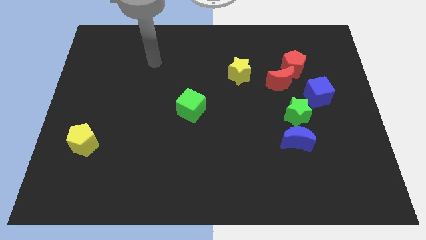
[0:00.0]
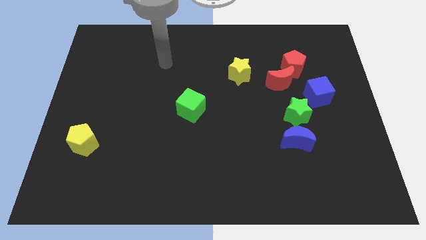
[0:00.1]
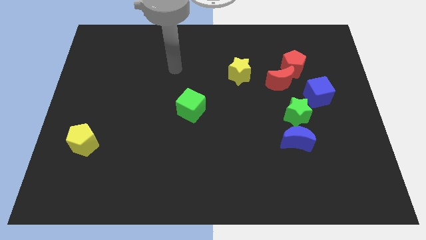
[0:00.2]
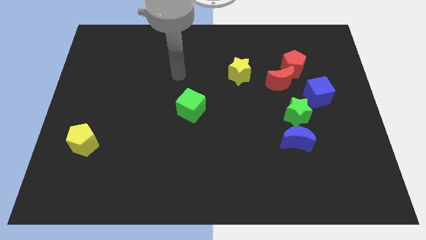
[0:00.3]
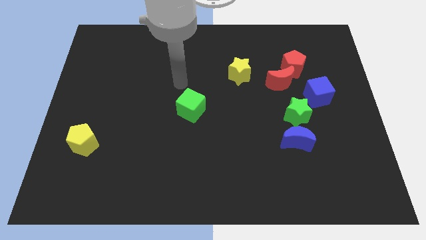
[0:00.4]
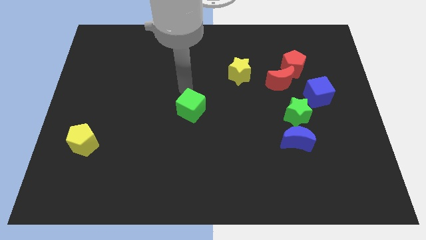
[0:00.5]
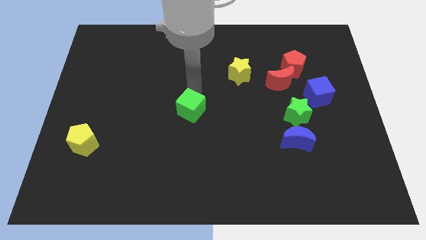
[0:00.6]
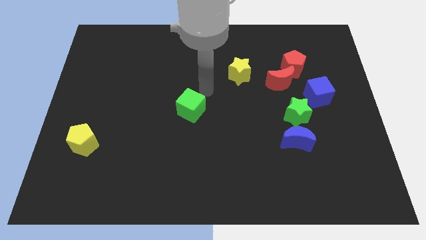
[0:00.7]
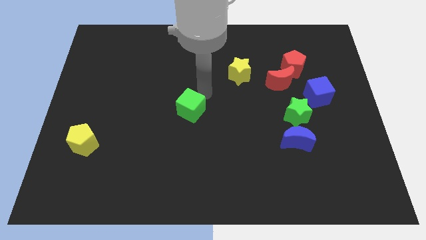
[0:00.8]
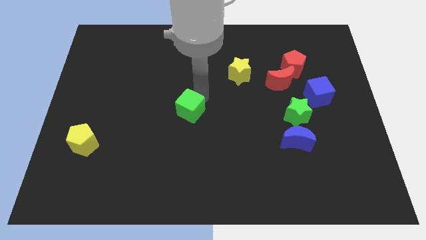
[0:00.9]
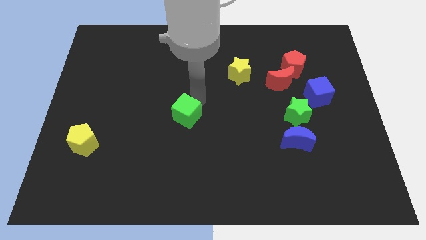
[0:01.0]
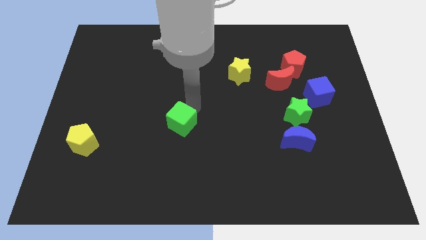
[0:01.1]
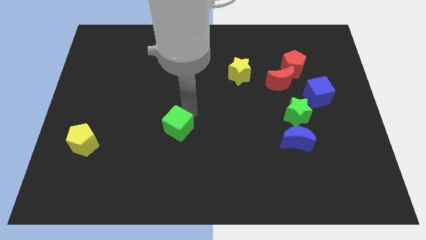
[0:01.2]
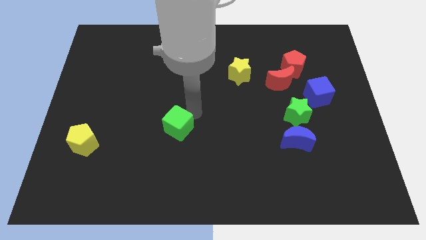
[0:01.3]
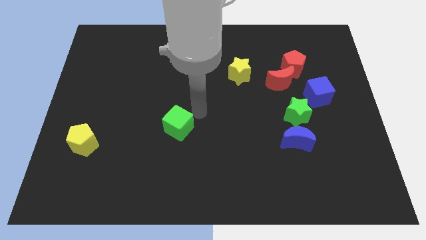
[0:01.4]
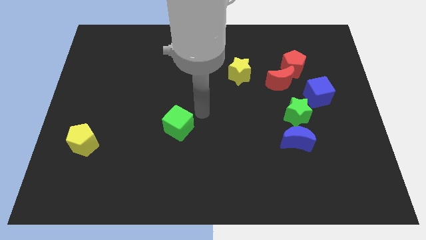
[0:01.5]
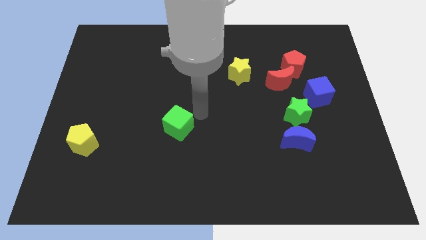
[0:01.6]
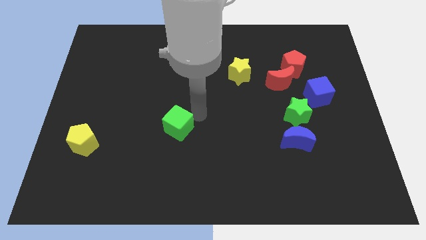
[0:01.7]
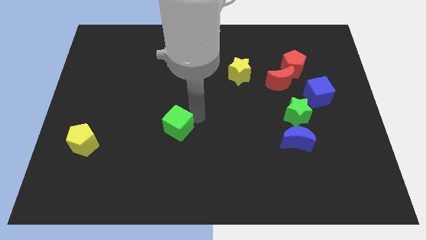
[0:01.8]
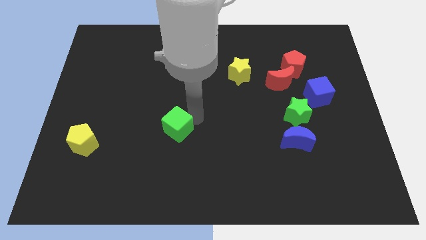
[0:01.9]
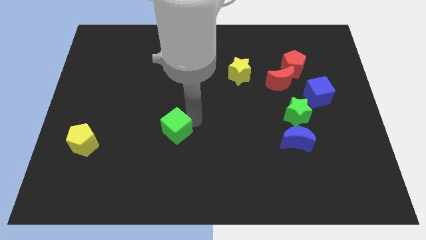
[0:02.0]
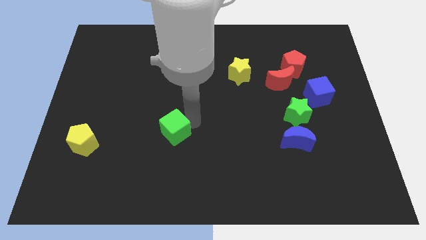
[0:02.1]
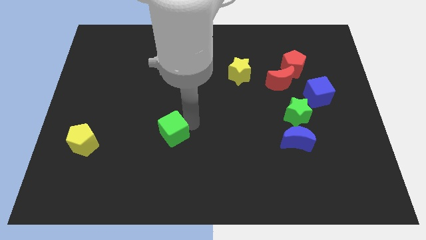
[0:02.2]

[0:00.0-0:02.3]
push the green cube down and left somewhat

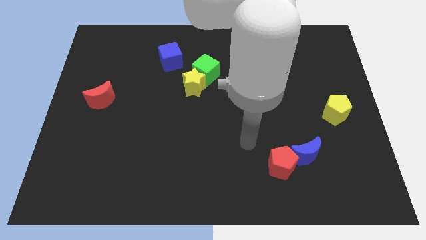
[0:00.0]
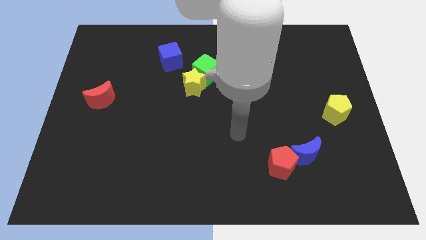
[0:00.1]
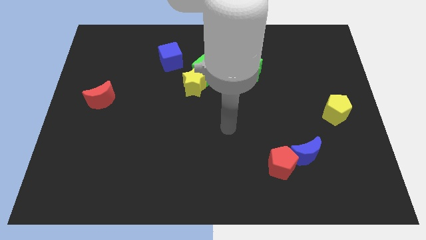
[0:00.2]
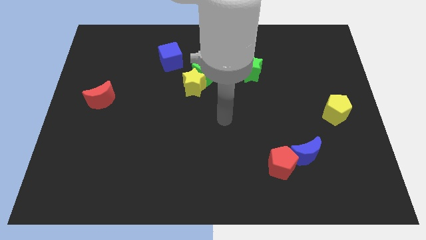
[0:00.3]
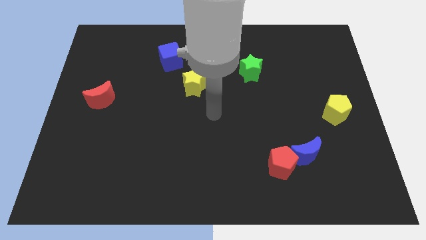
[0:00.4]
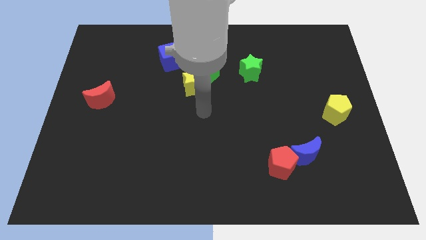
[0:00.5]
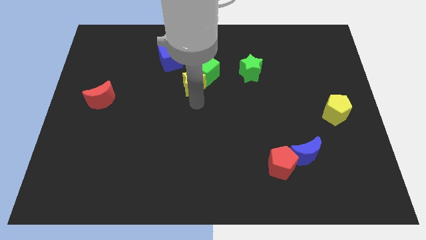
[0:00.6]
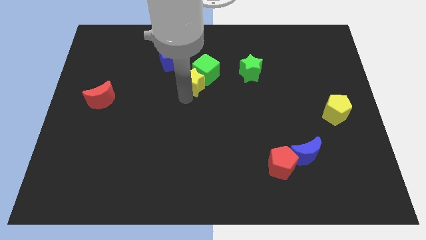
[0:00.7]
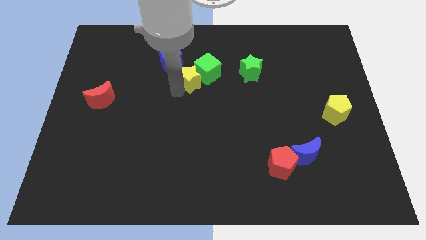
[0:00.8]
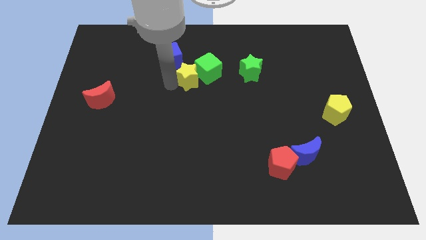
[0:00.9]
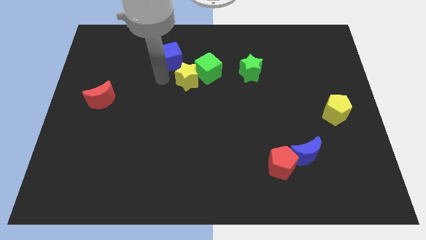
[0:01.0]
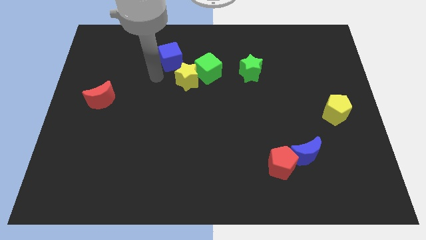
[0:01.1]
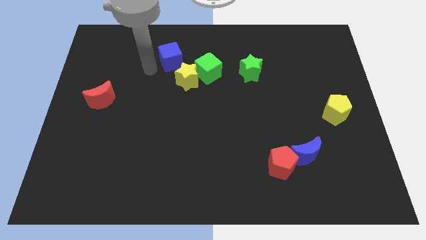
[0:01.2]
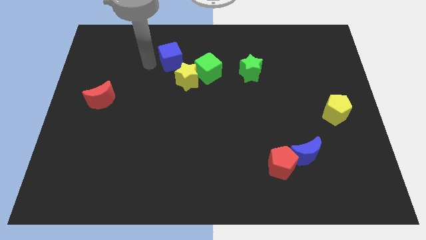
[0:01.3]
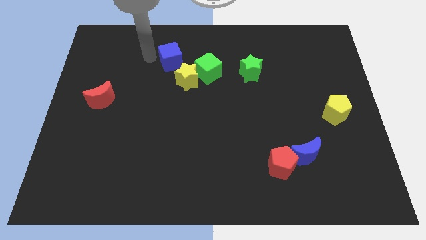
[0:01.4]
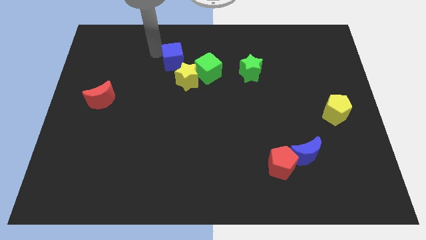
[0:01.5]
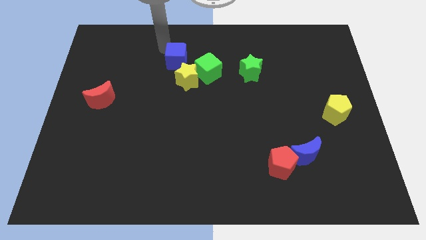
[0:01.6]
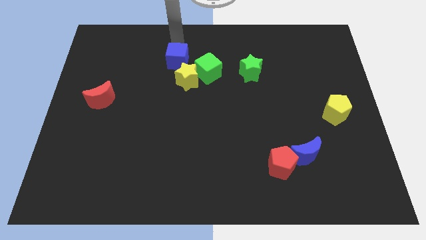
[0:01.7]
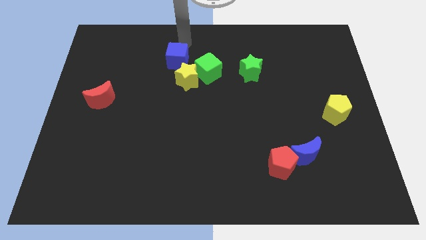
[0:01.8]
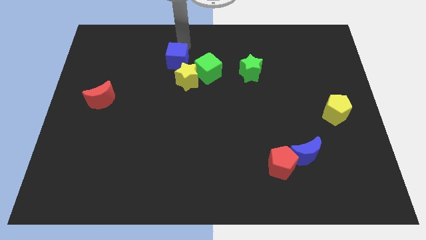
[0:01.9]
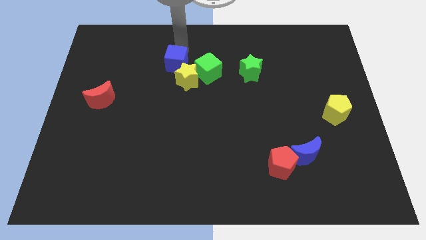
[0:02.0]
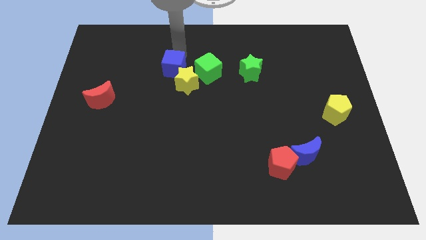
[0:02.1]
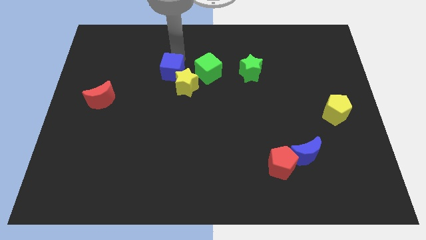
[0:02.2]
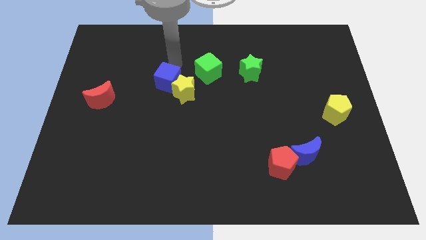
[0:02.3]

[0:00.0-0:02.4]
slightly slide the blue cube down

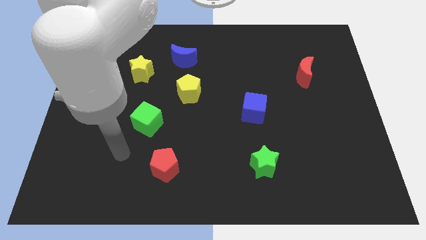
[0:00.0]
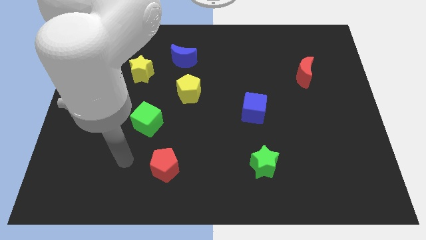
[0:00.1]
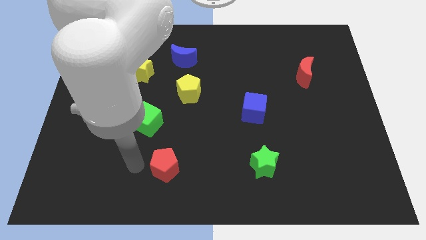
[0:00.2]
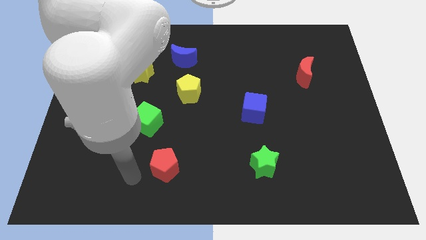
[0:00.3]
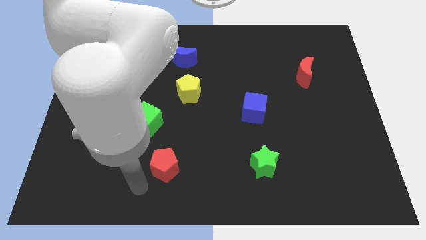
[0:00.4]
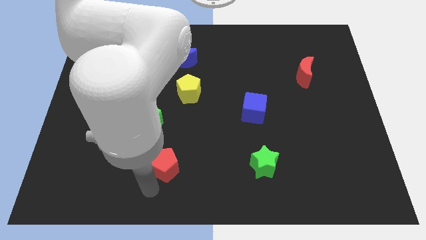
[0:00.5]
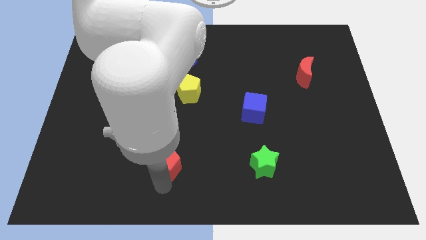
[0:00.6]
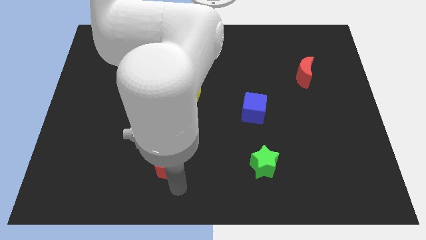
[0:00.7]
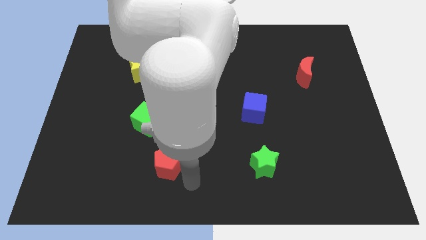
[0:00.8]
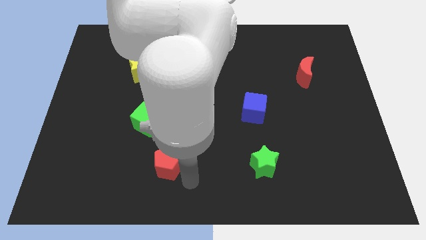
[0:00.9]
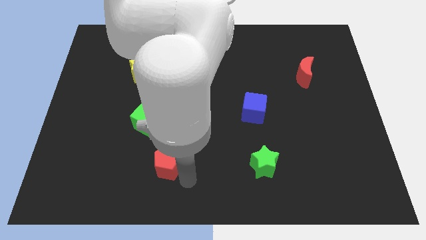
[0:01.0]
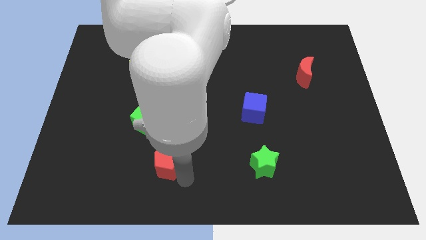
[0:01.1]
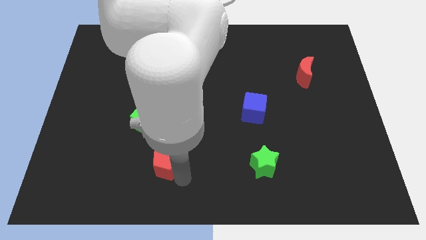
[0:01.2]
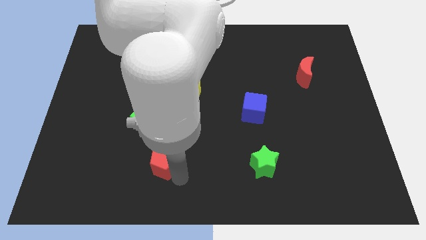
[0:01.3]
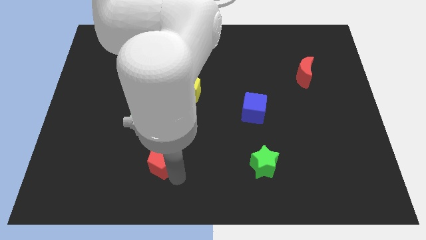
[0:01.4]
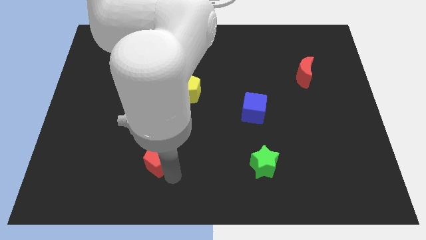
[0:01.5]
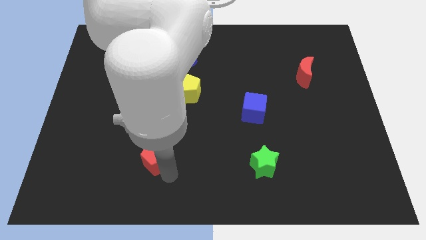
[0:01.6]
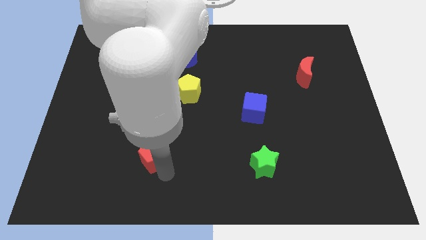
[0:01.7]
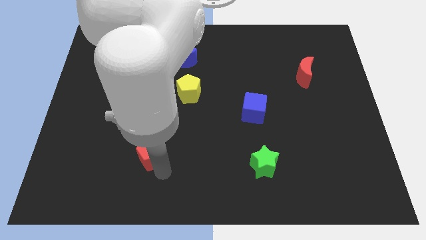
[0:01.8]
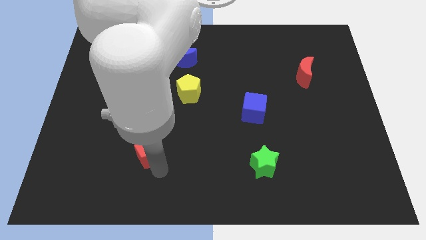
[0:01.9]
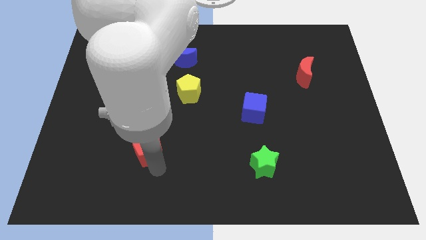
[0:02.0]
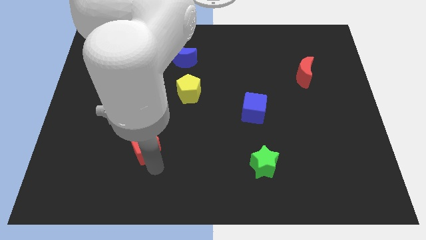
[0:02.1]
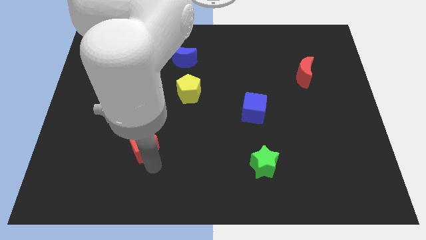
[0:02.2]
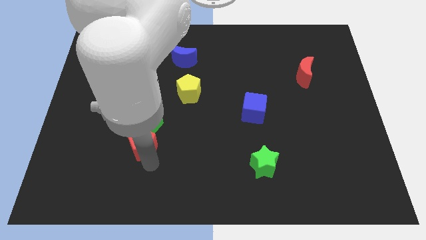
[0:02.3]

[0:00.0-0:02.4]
push the red pentagon a bit upwards and left

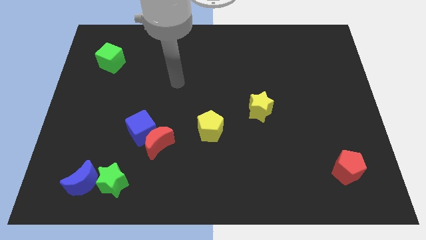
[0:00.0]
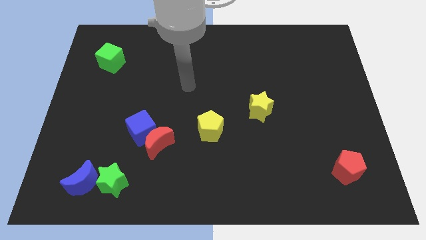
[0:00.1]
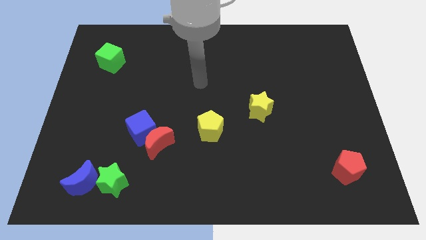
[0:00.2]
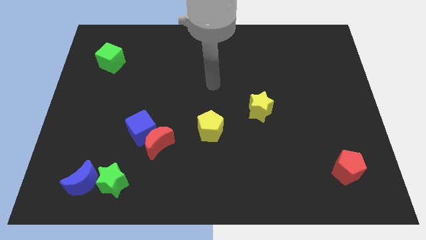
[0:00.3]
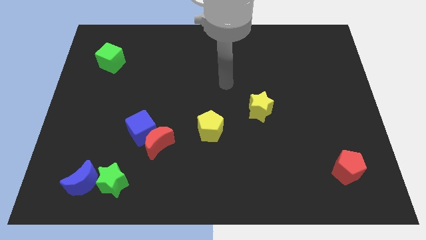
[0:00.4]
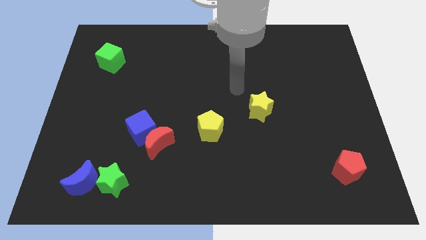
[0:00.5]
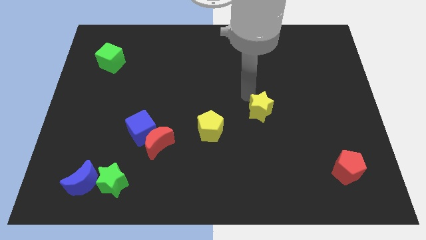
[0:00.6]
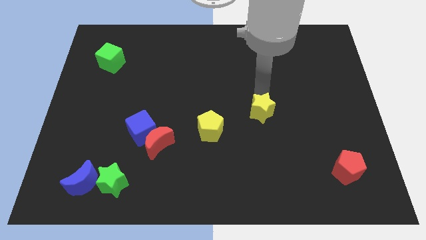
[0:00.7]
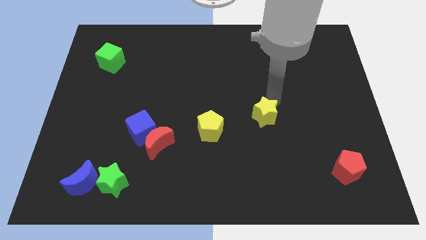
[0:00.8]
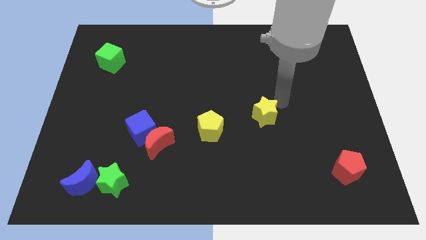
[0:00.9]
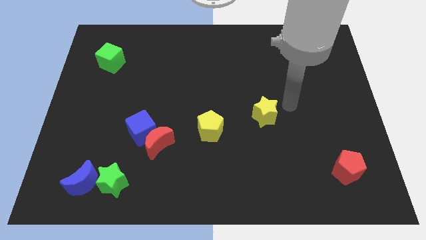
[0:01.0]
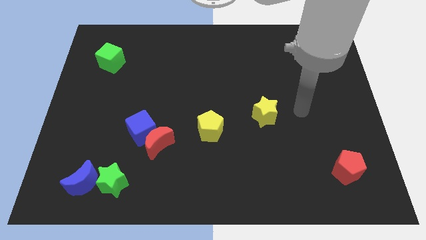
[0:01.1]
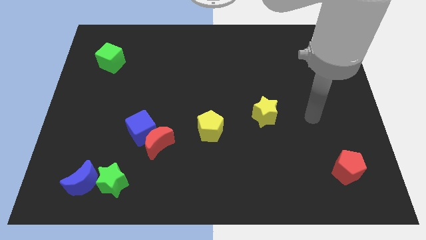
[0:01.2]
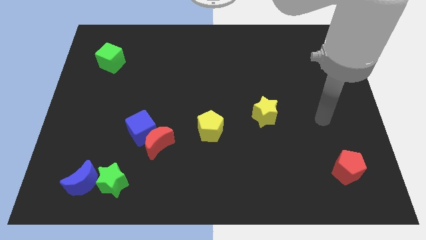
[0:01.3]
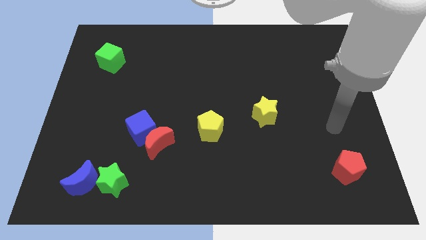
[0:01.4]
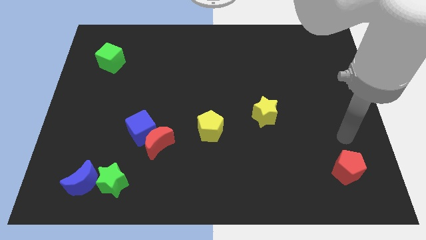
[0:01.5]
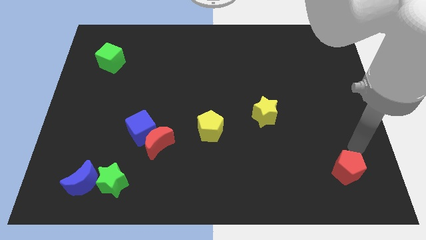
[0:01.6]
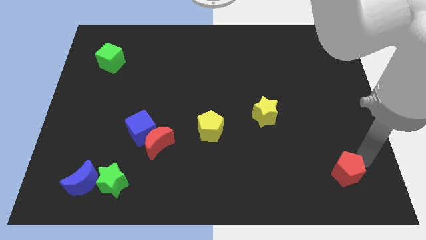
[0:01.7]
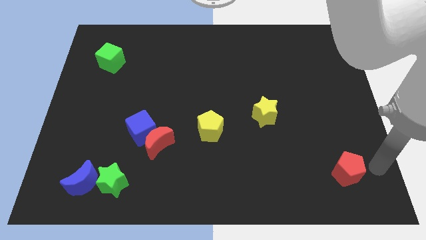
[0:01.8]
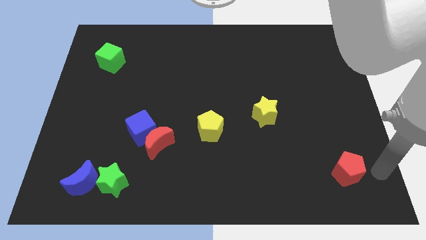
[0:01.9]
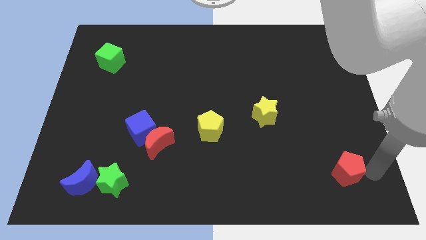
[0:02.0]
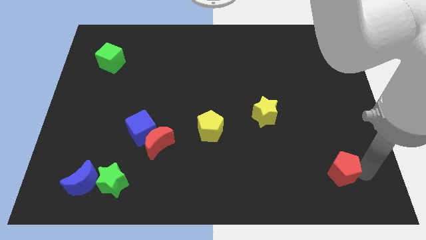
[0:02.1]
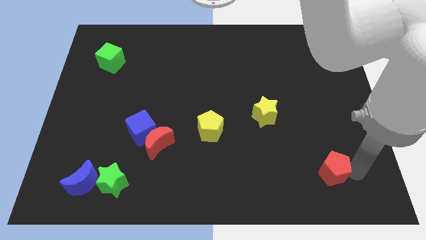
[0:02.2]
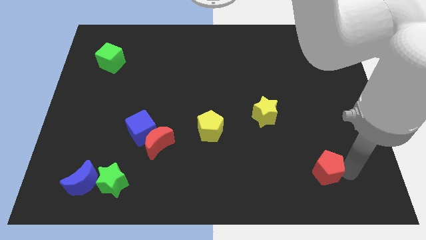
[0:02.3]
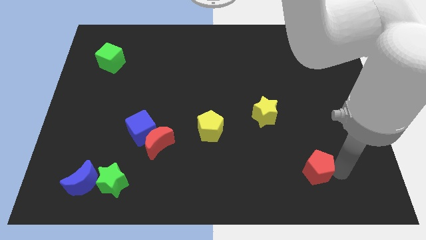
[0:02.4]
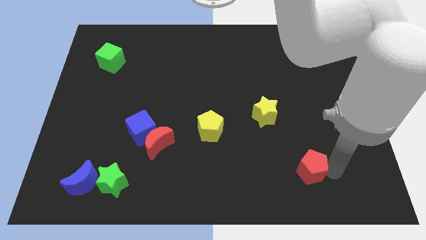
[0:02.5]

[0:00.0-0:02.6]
move the red pentagon to the left a bit
